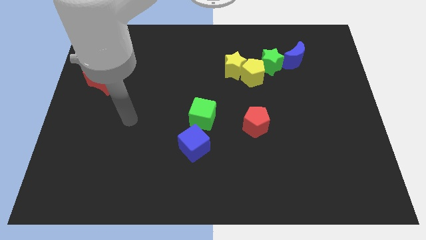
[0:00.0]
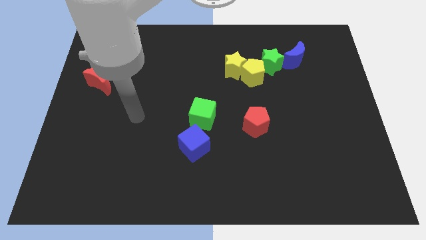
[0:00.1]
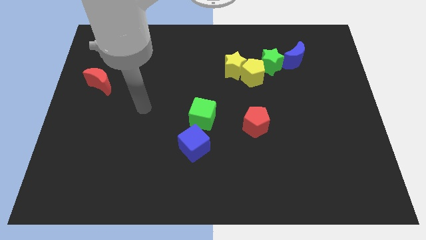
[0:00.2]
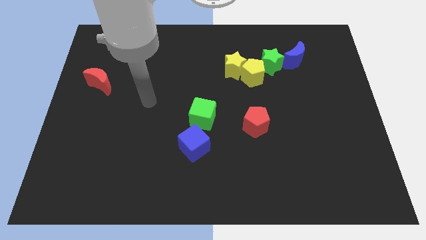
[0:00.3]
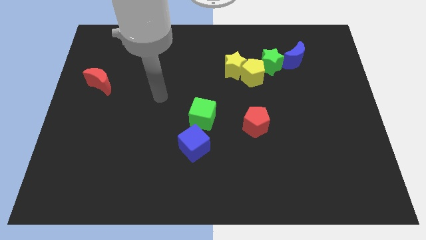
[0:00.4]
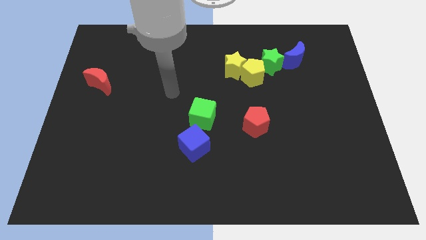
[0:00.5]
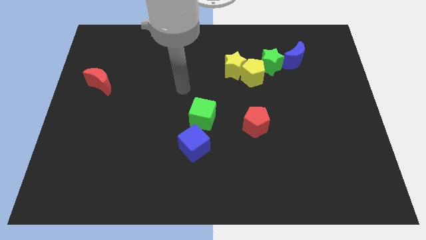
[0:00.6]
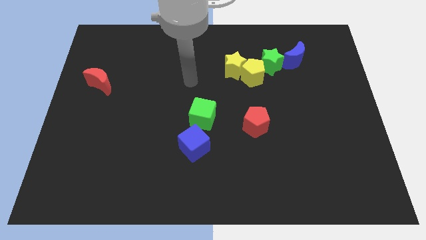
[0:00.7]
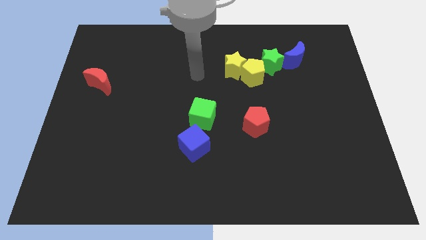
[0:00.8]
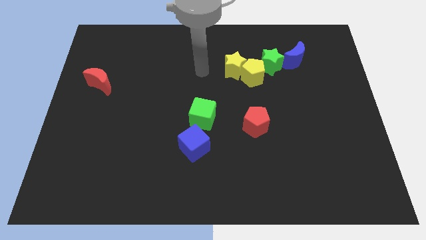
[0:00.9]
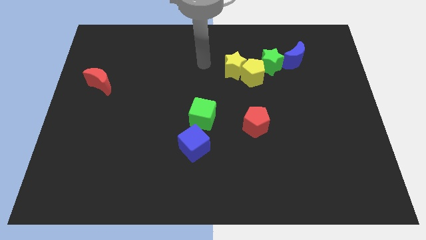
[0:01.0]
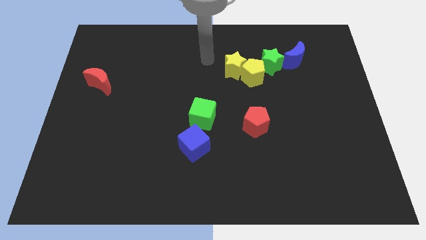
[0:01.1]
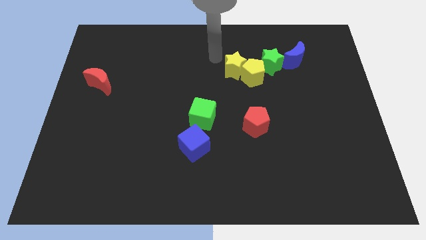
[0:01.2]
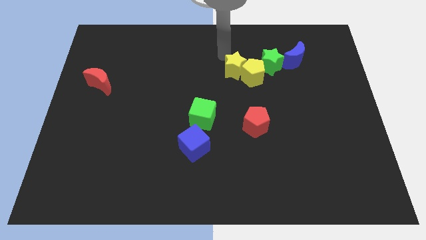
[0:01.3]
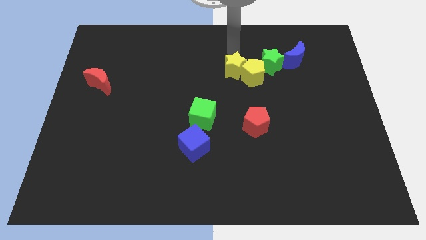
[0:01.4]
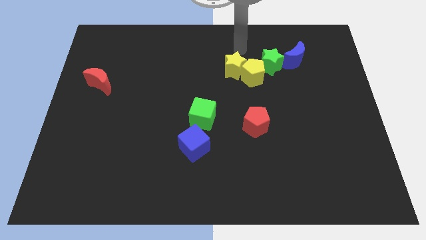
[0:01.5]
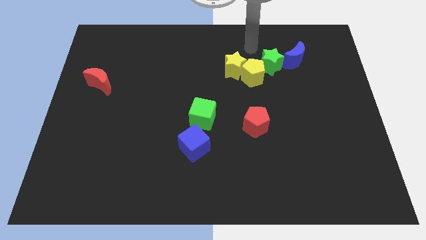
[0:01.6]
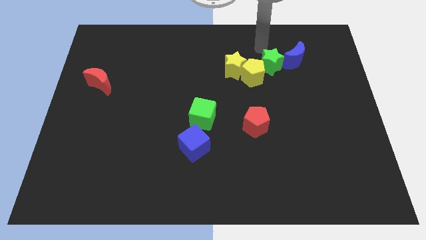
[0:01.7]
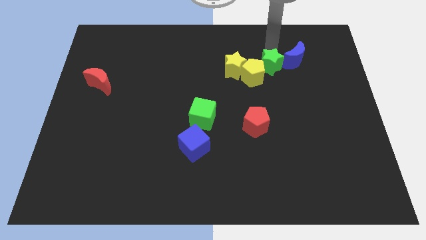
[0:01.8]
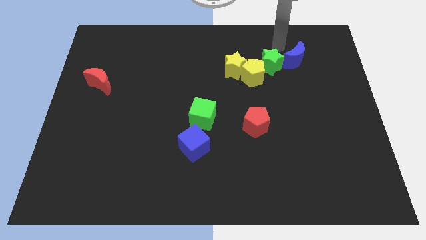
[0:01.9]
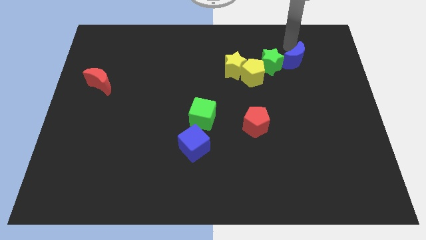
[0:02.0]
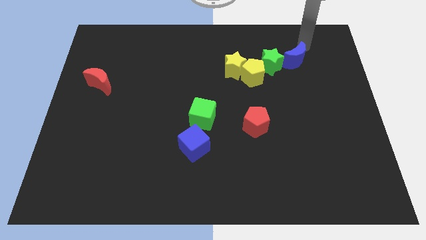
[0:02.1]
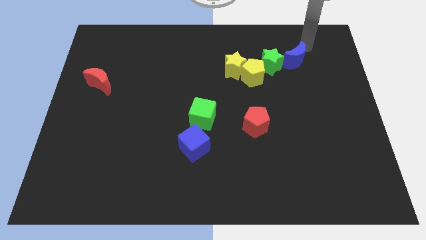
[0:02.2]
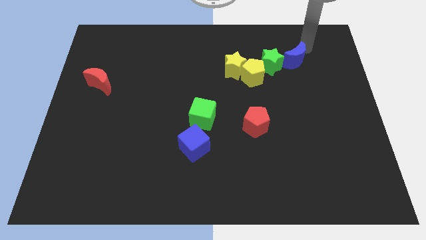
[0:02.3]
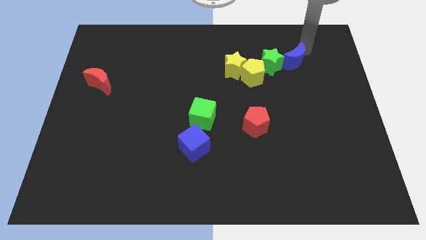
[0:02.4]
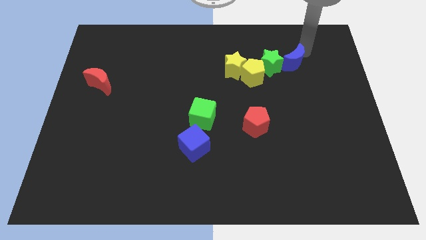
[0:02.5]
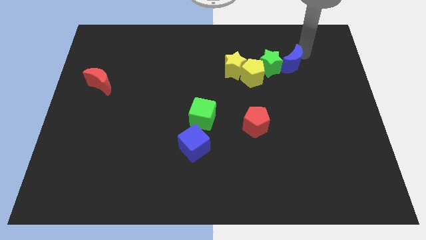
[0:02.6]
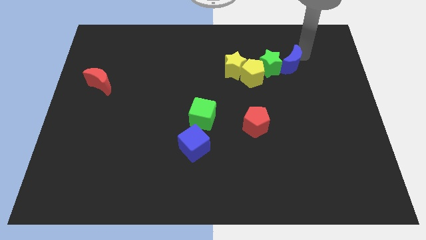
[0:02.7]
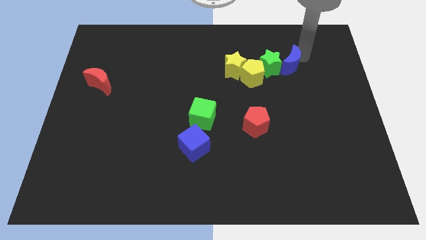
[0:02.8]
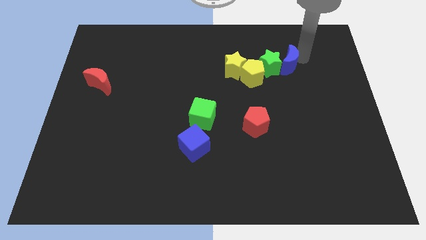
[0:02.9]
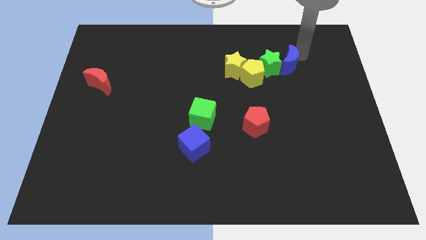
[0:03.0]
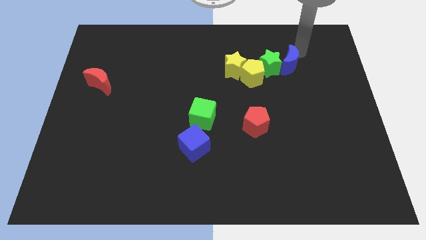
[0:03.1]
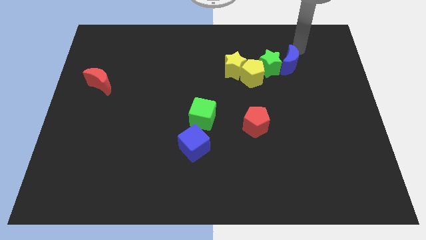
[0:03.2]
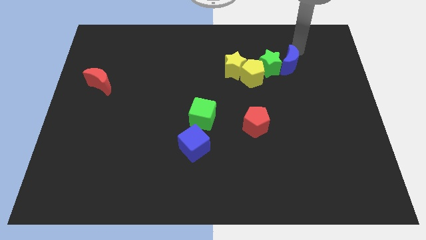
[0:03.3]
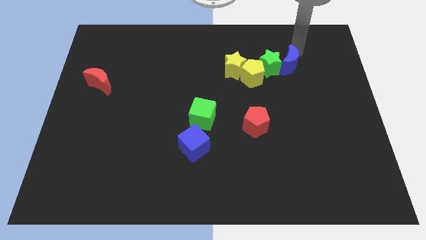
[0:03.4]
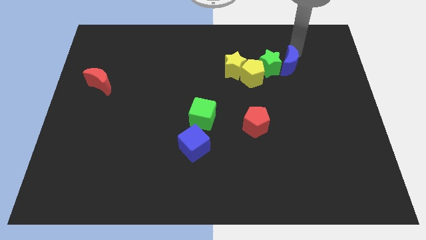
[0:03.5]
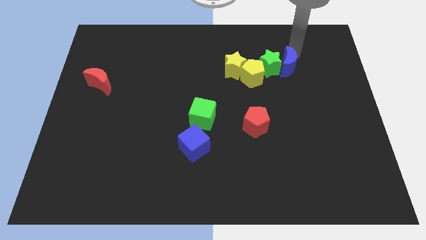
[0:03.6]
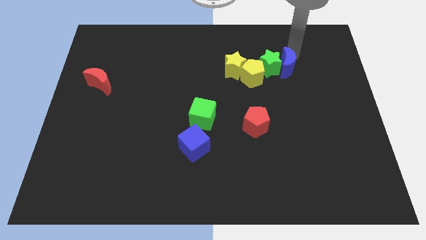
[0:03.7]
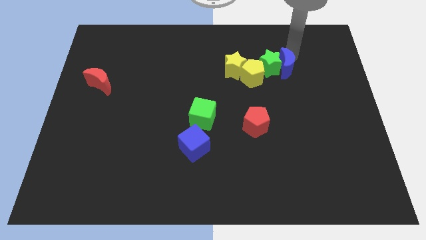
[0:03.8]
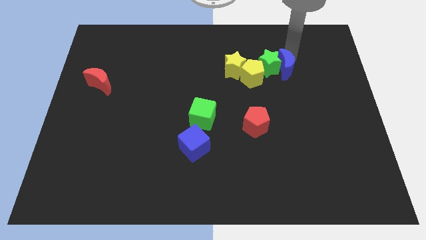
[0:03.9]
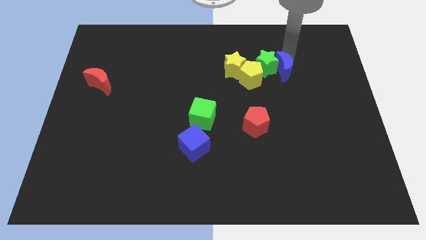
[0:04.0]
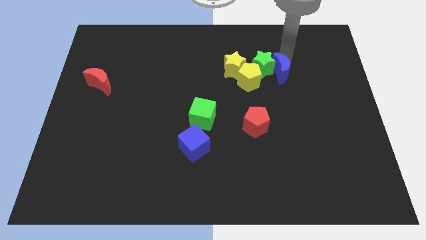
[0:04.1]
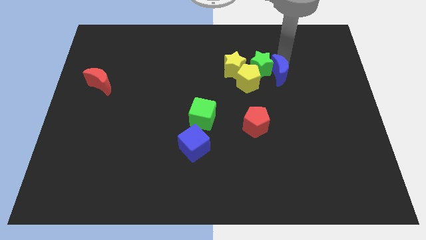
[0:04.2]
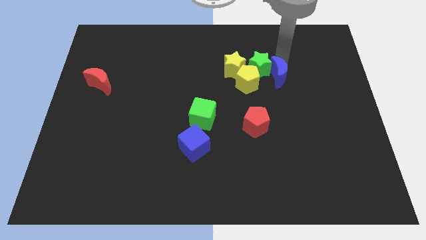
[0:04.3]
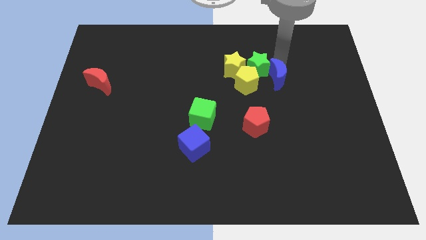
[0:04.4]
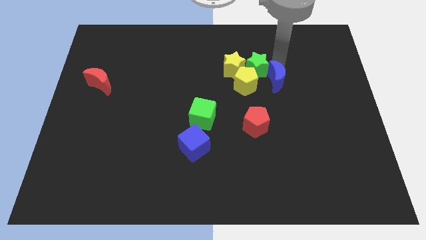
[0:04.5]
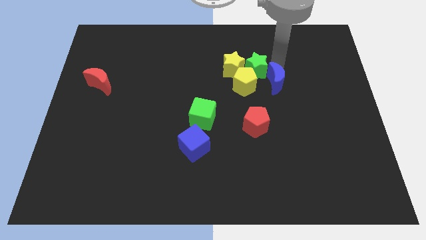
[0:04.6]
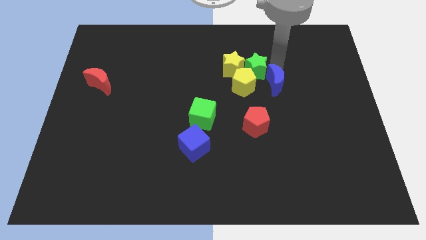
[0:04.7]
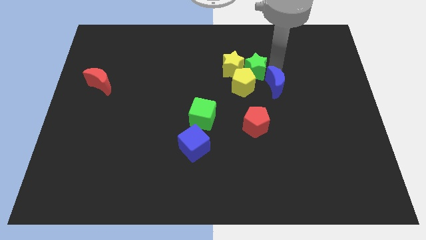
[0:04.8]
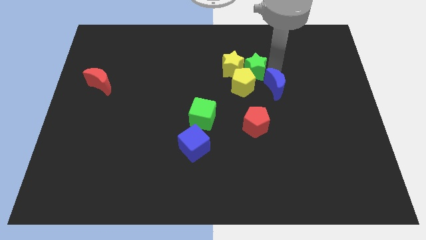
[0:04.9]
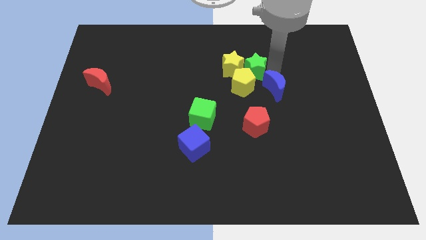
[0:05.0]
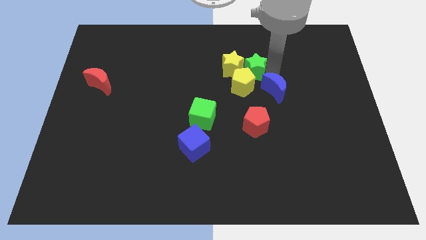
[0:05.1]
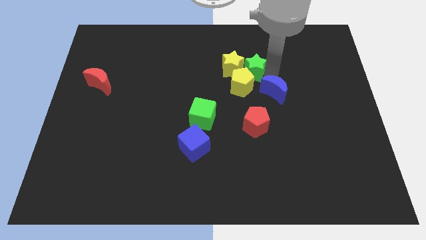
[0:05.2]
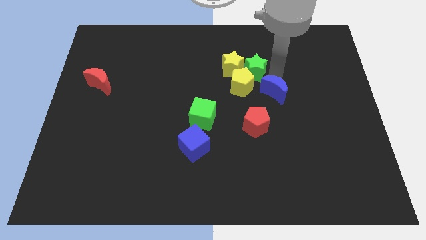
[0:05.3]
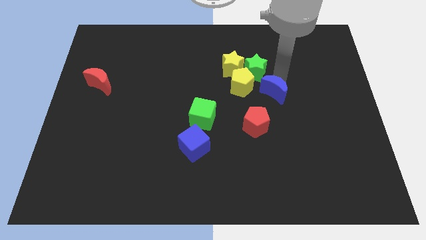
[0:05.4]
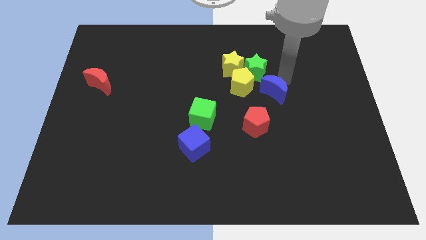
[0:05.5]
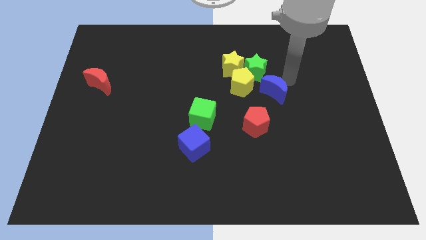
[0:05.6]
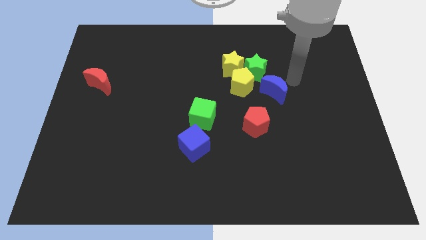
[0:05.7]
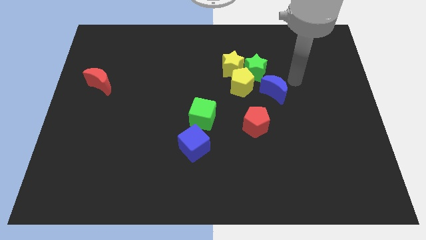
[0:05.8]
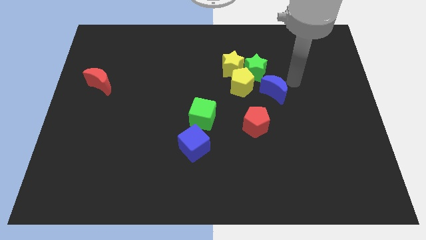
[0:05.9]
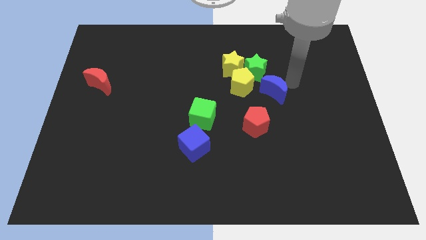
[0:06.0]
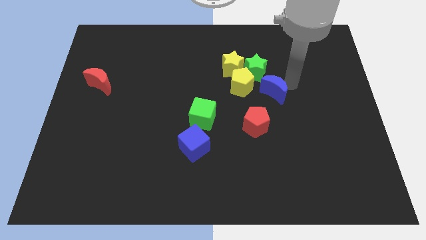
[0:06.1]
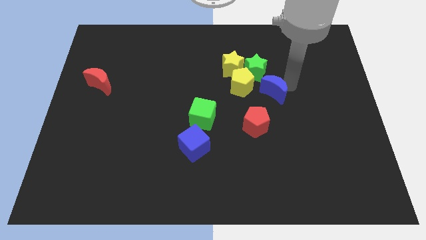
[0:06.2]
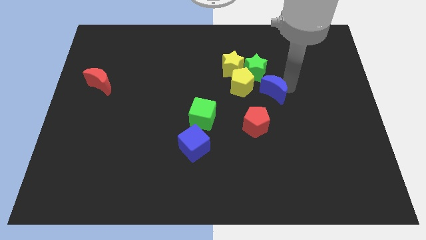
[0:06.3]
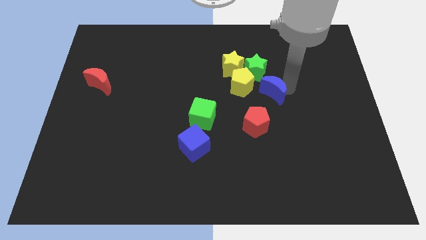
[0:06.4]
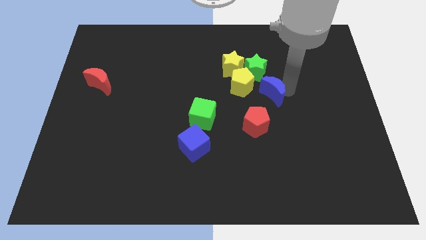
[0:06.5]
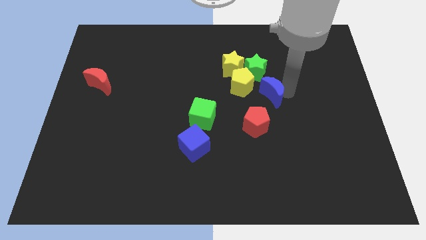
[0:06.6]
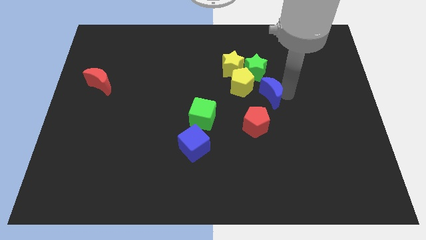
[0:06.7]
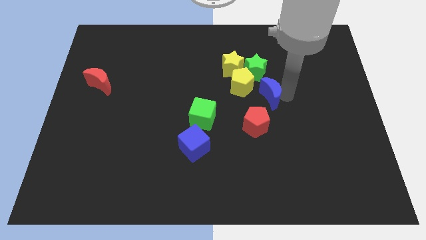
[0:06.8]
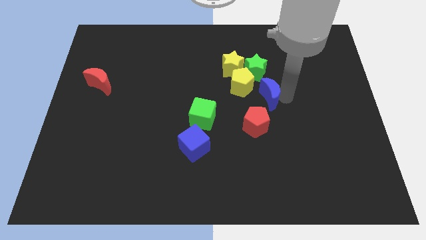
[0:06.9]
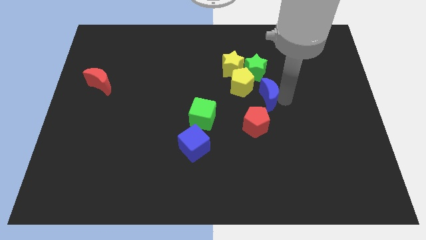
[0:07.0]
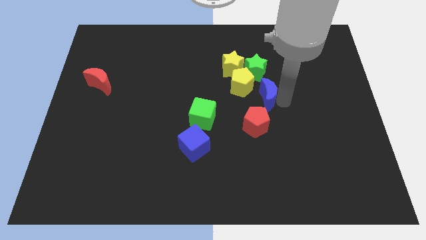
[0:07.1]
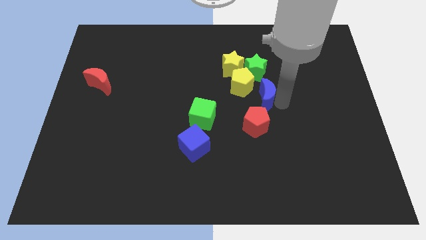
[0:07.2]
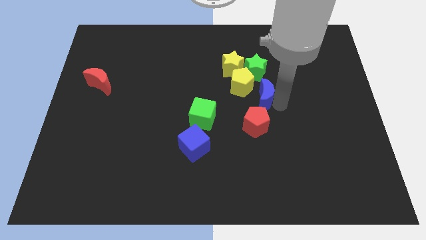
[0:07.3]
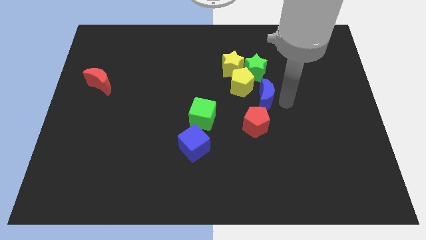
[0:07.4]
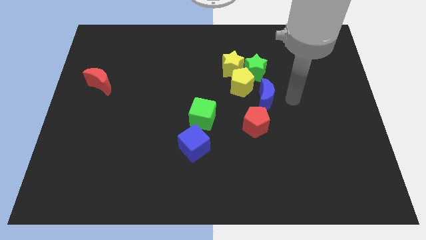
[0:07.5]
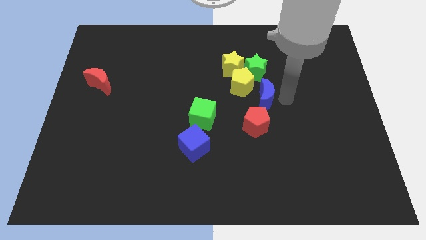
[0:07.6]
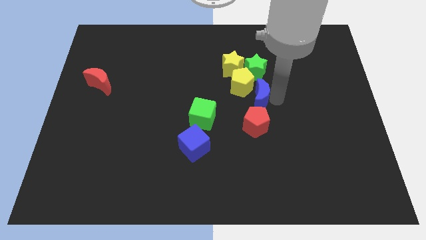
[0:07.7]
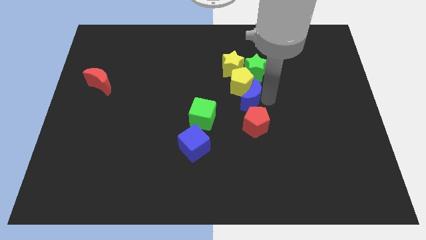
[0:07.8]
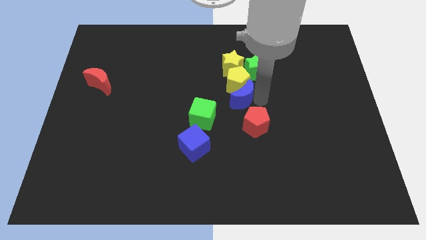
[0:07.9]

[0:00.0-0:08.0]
slide the blue moon to the top right of the green cube
